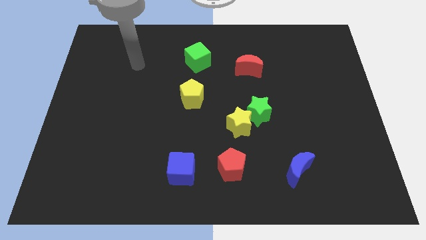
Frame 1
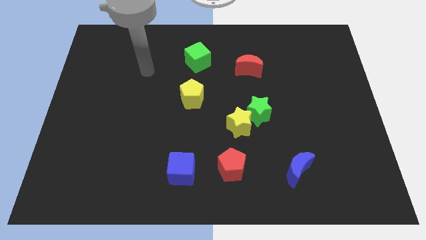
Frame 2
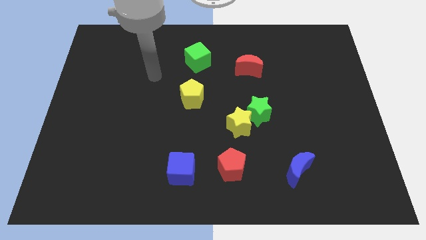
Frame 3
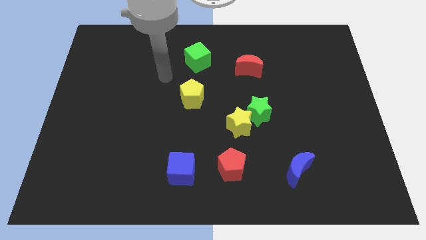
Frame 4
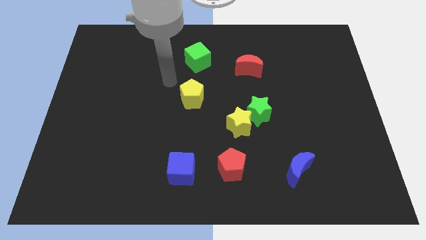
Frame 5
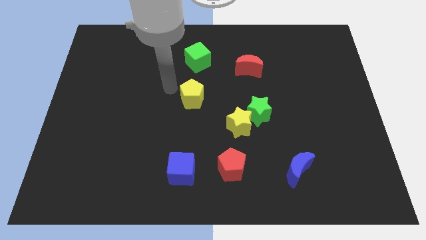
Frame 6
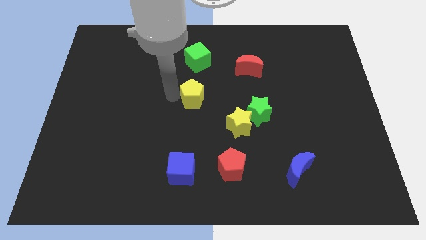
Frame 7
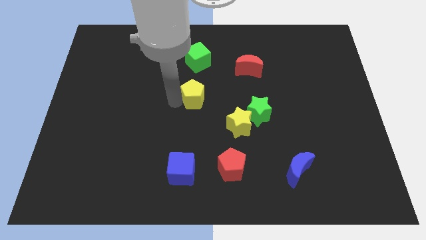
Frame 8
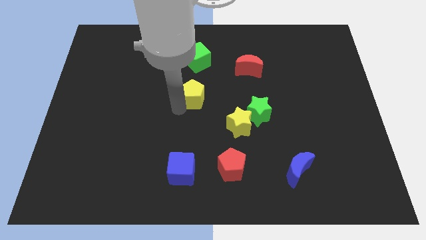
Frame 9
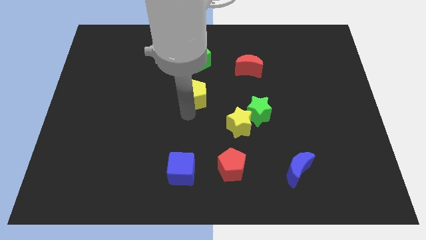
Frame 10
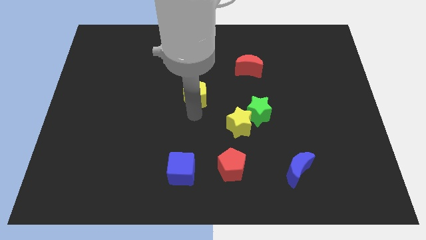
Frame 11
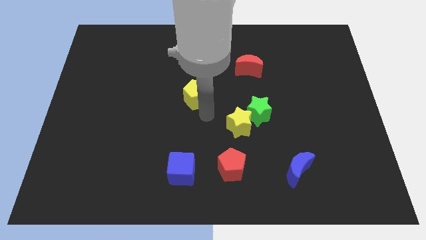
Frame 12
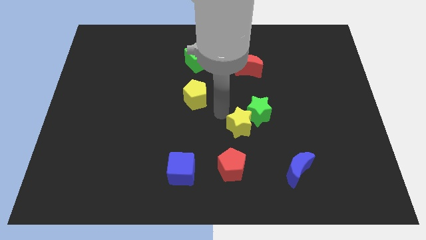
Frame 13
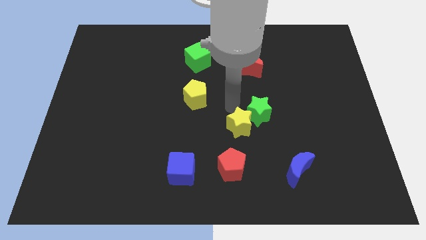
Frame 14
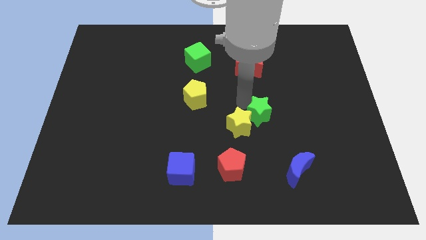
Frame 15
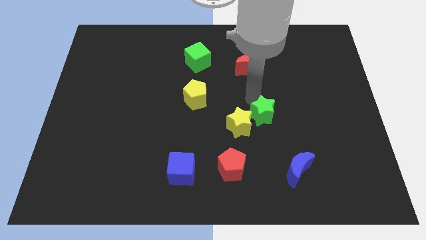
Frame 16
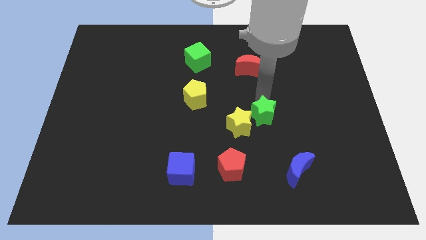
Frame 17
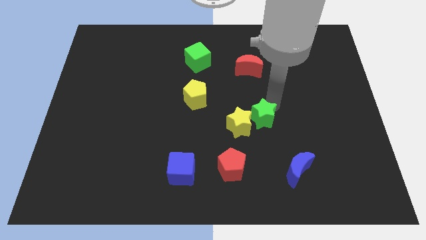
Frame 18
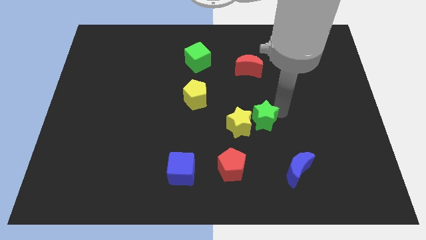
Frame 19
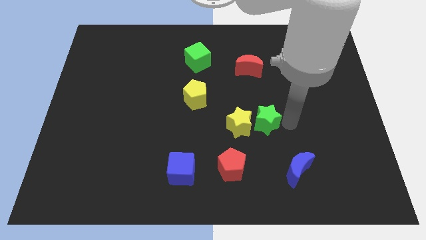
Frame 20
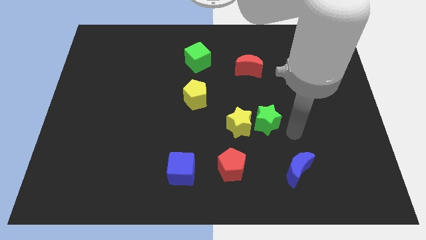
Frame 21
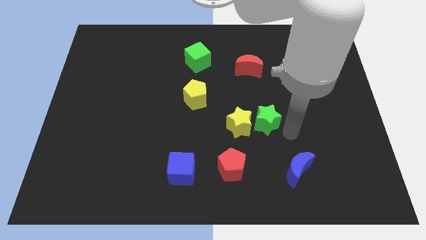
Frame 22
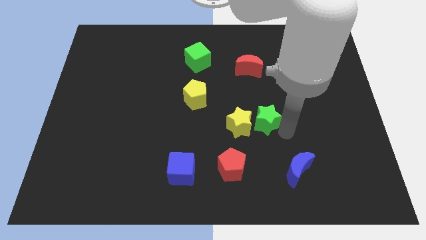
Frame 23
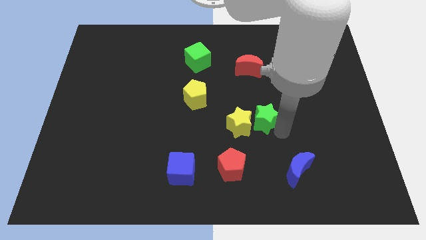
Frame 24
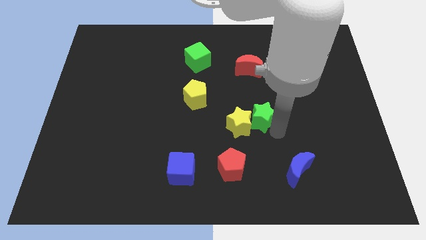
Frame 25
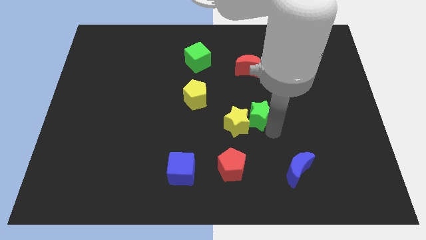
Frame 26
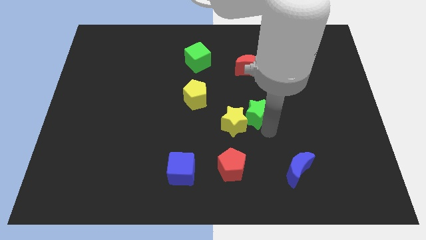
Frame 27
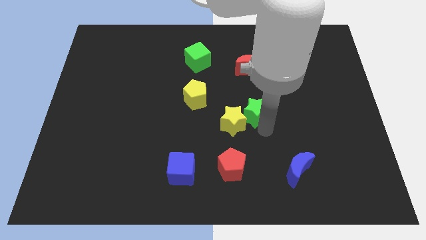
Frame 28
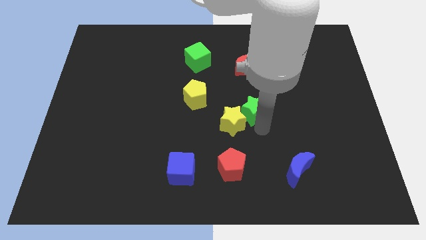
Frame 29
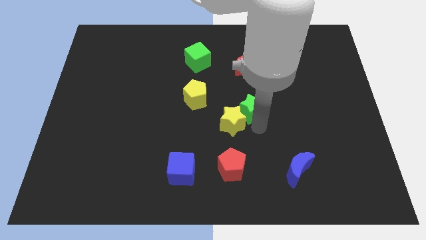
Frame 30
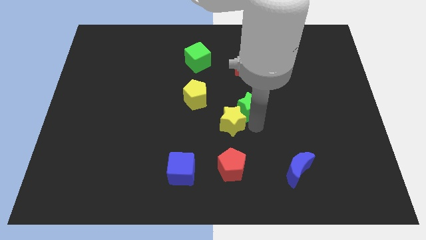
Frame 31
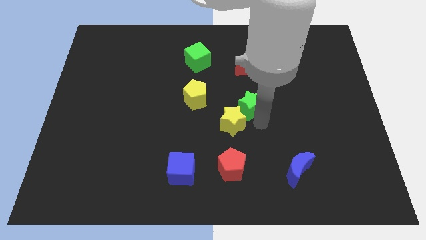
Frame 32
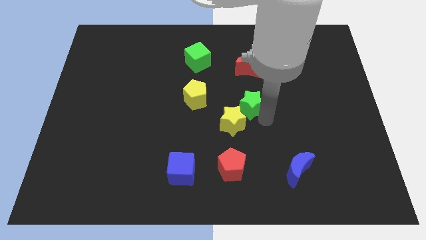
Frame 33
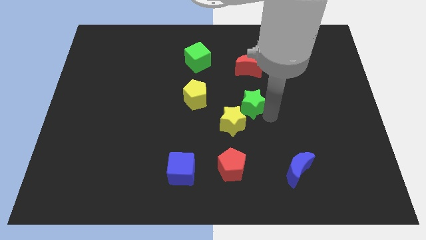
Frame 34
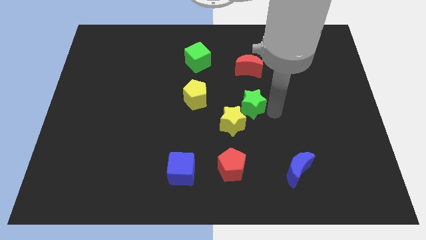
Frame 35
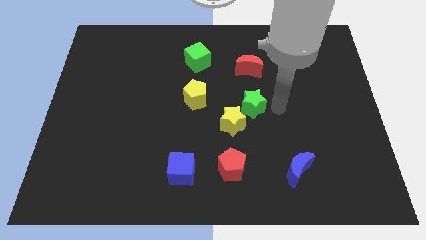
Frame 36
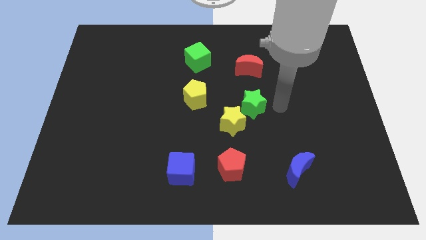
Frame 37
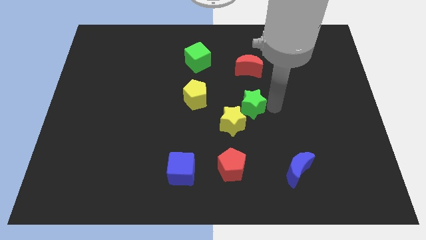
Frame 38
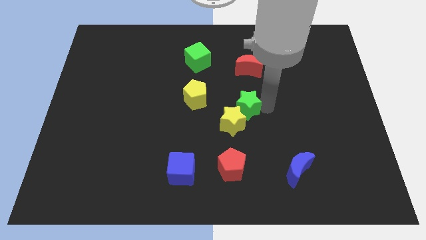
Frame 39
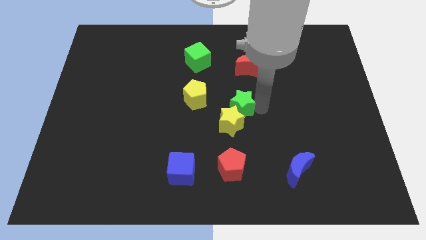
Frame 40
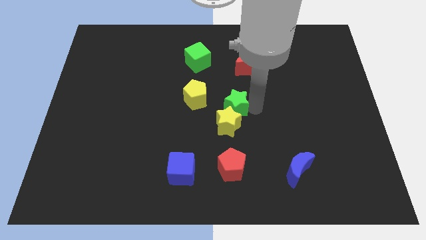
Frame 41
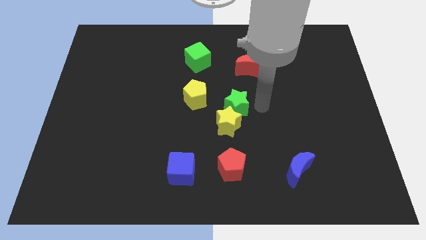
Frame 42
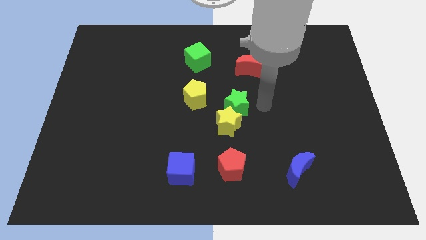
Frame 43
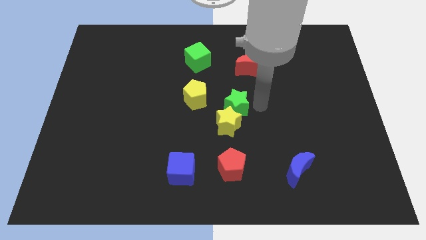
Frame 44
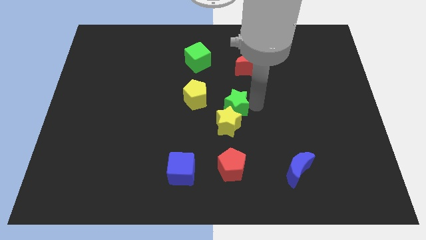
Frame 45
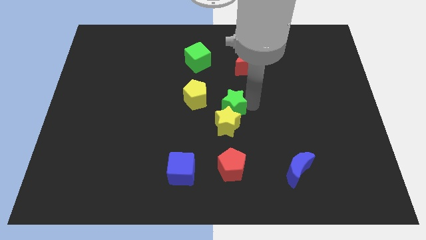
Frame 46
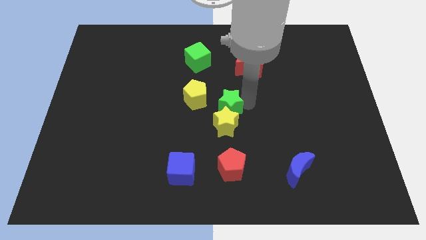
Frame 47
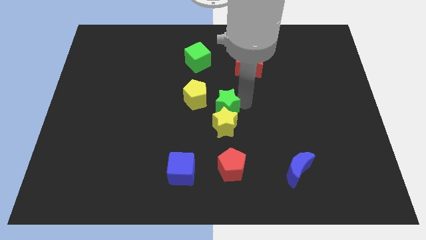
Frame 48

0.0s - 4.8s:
move the green star to the left slightly

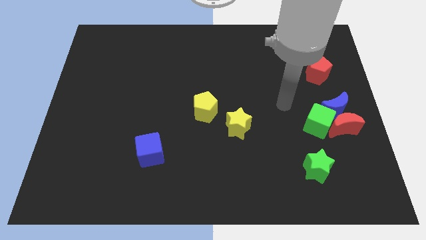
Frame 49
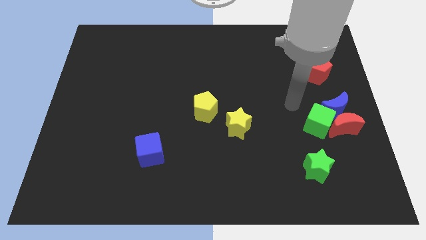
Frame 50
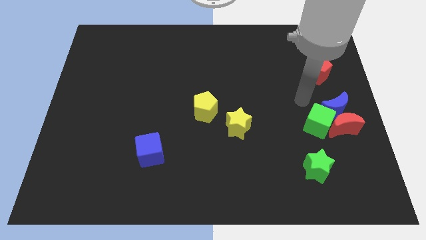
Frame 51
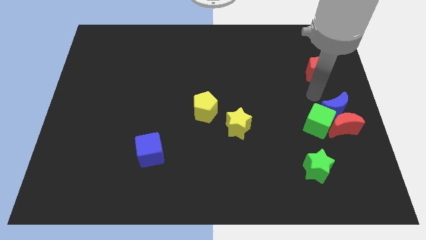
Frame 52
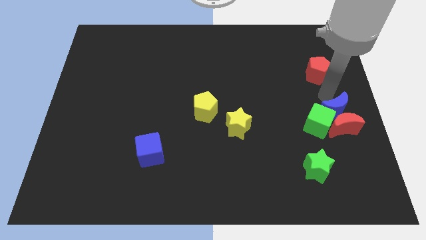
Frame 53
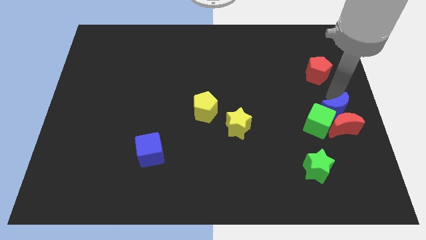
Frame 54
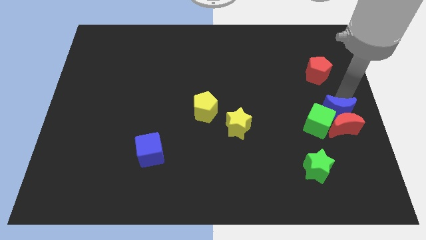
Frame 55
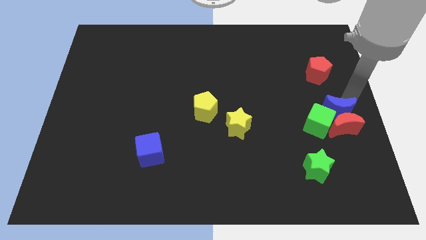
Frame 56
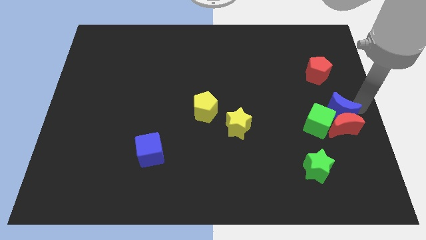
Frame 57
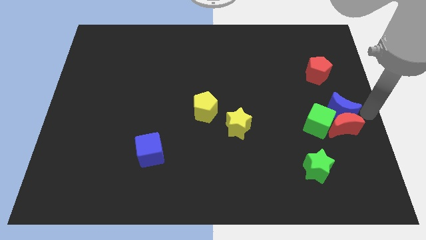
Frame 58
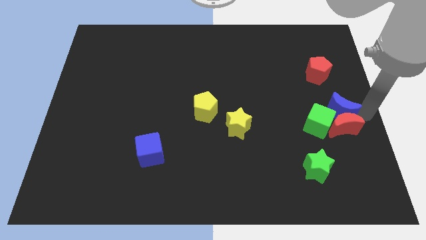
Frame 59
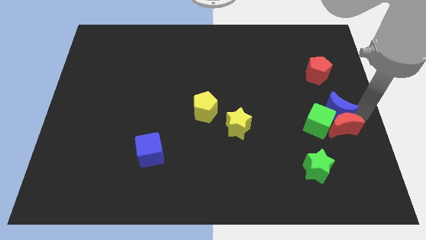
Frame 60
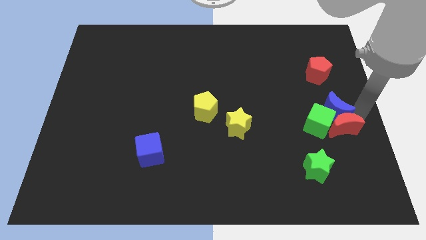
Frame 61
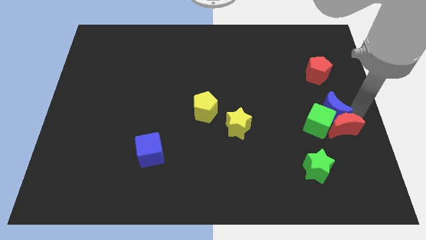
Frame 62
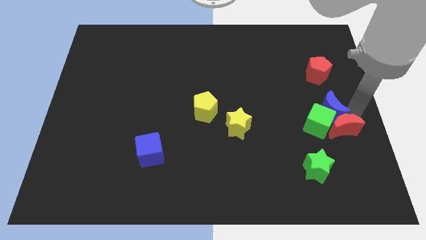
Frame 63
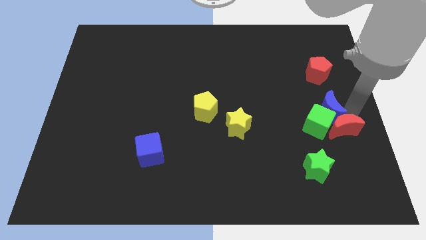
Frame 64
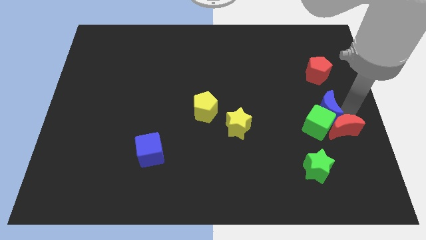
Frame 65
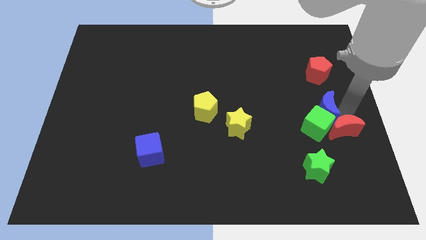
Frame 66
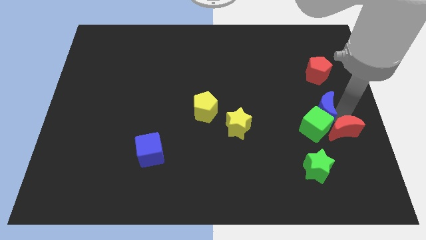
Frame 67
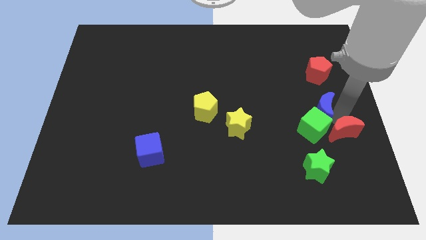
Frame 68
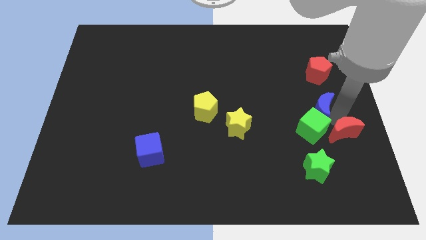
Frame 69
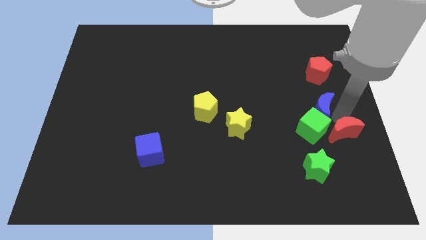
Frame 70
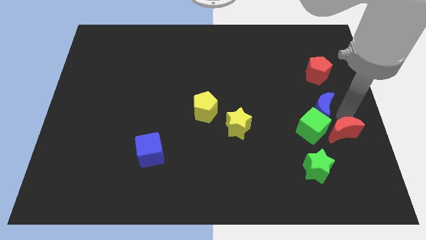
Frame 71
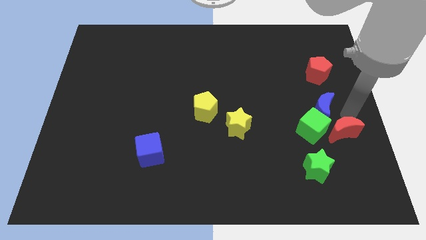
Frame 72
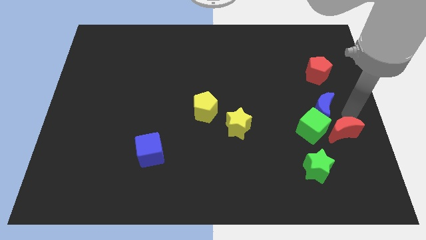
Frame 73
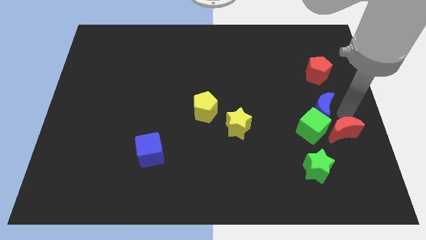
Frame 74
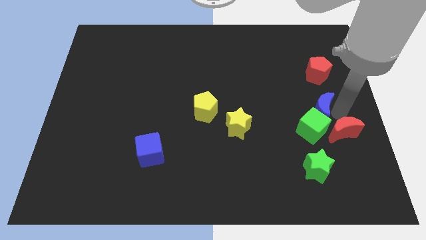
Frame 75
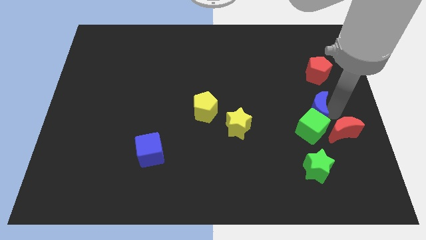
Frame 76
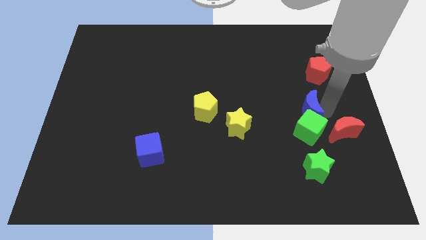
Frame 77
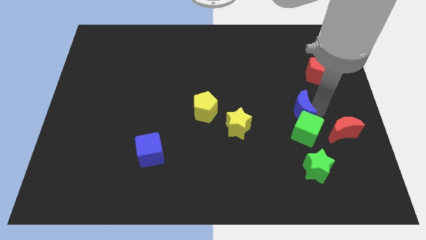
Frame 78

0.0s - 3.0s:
slide the blue moon a little left

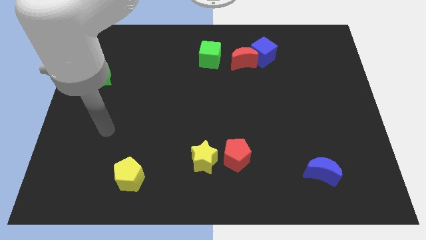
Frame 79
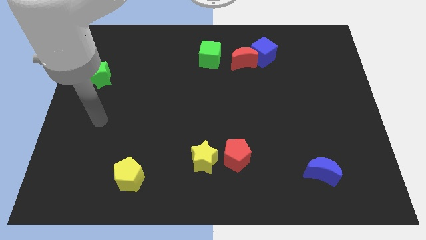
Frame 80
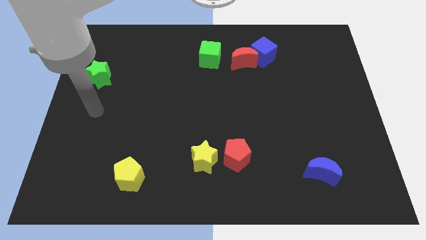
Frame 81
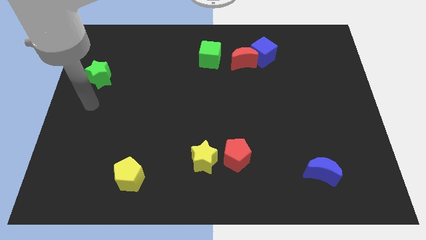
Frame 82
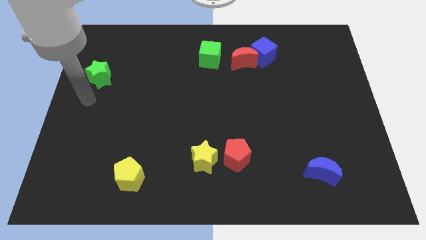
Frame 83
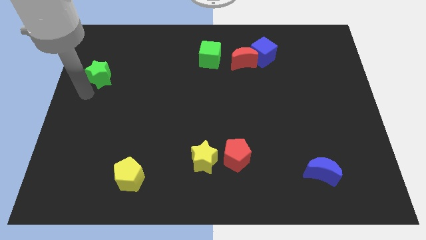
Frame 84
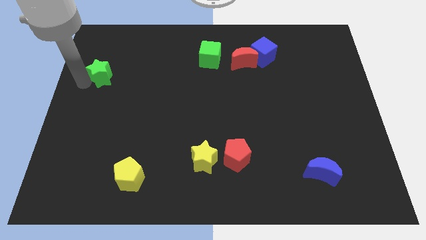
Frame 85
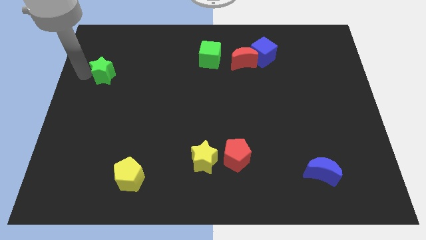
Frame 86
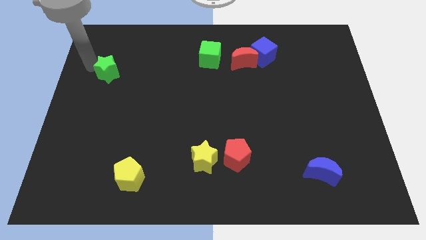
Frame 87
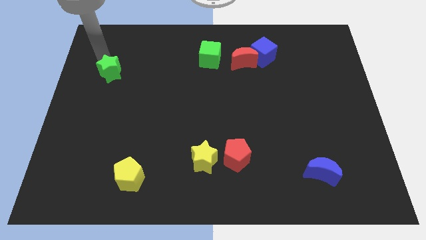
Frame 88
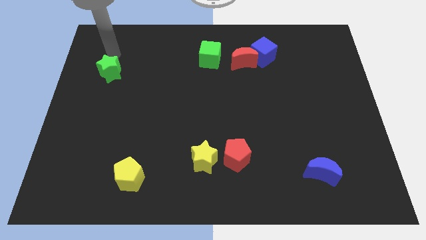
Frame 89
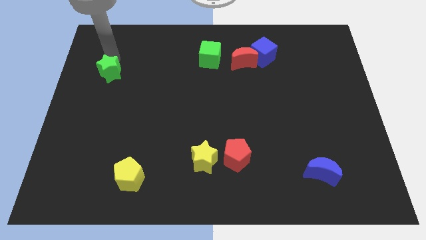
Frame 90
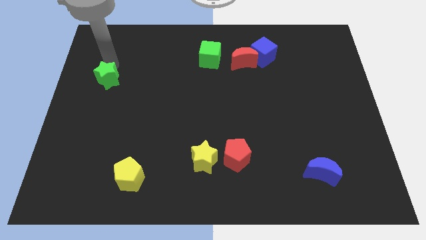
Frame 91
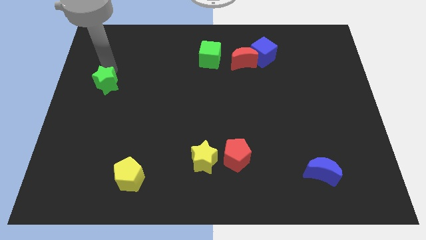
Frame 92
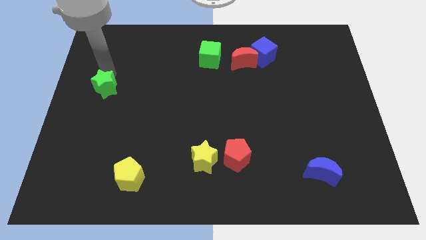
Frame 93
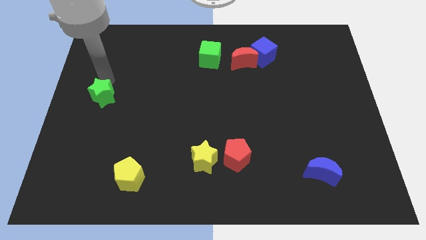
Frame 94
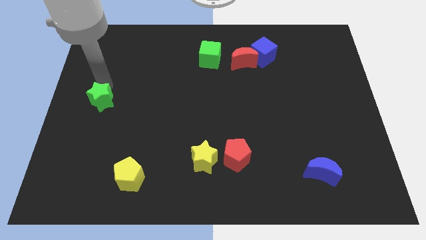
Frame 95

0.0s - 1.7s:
slightly move the green star down
